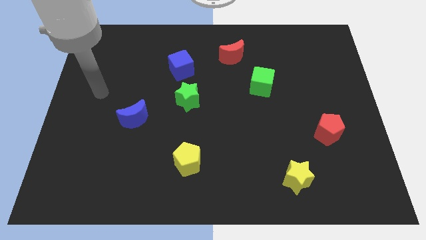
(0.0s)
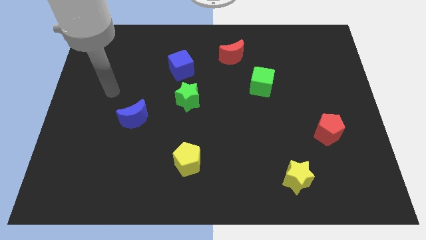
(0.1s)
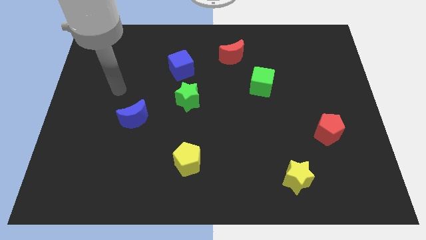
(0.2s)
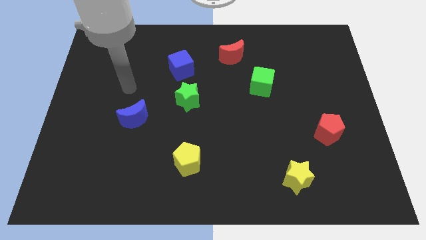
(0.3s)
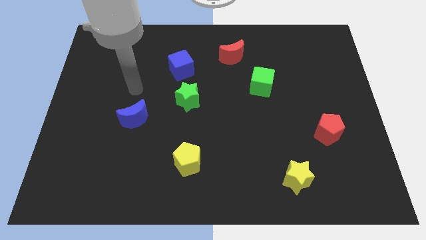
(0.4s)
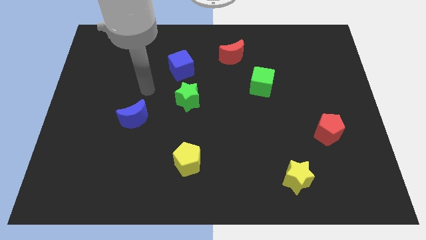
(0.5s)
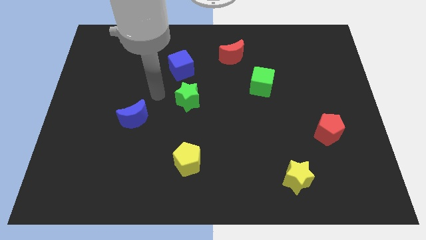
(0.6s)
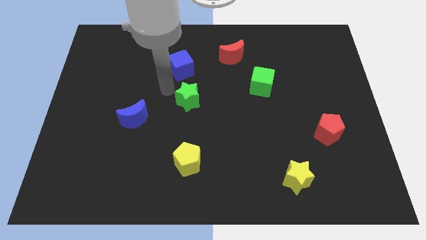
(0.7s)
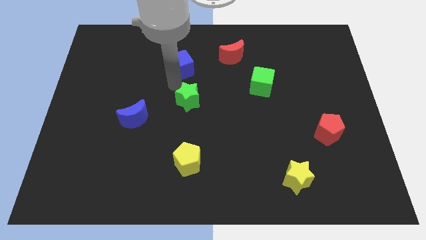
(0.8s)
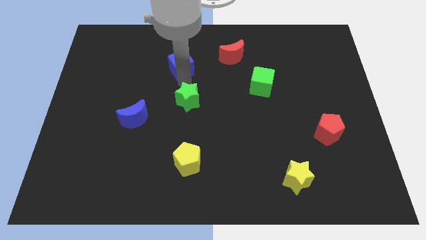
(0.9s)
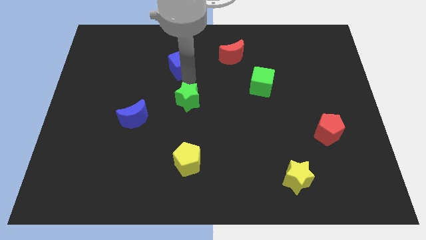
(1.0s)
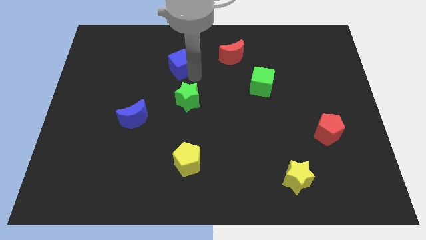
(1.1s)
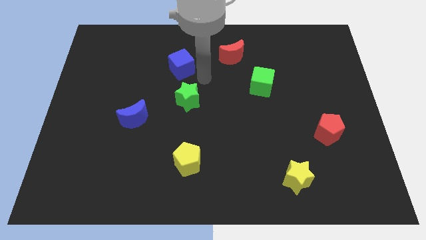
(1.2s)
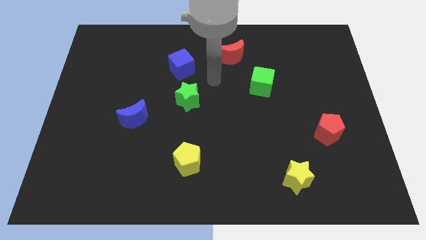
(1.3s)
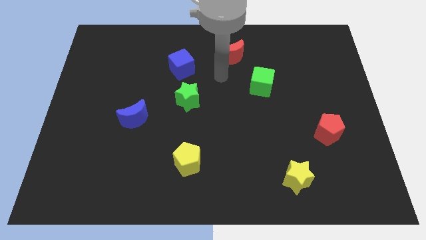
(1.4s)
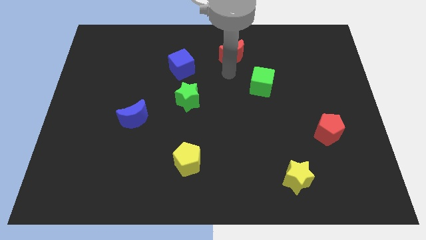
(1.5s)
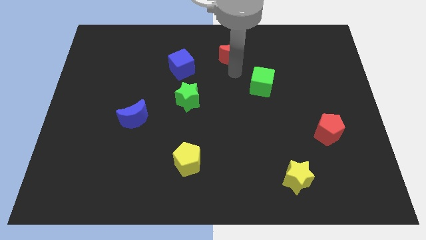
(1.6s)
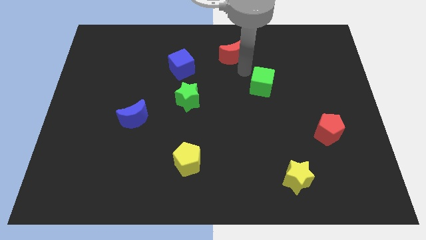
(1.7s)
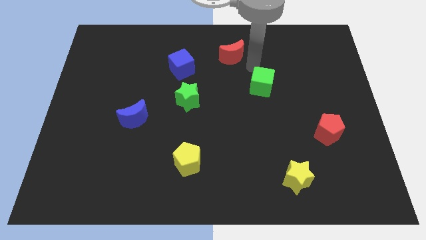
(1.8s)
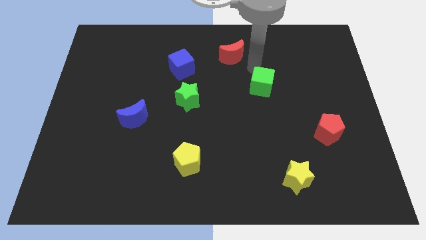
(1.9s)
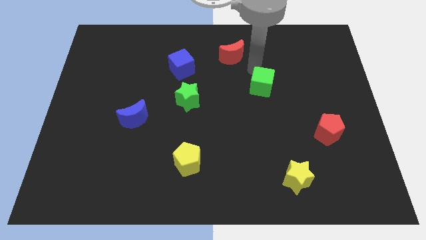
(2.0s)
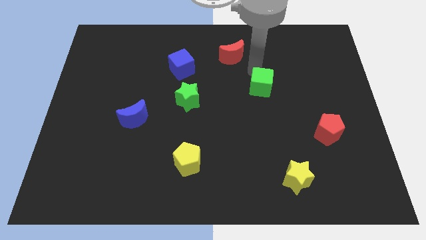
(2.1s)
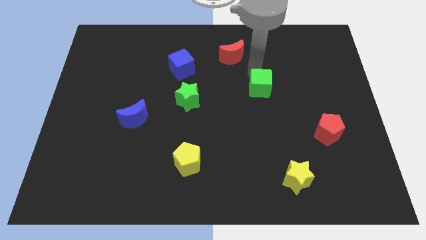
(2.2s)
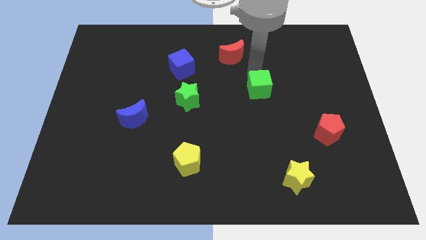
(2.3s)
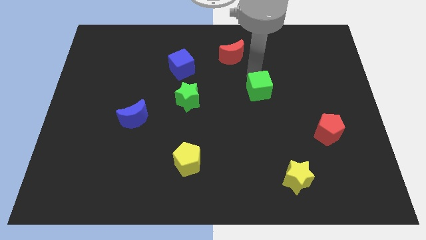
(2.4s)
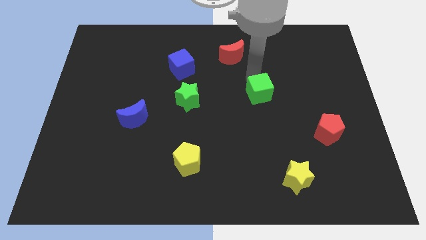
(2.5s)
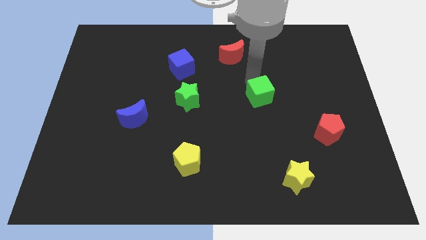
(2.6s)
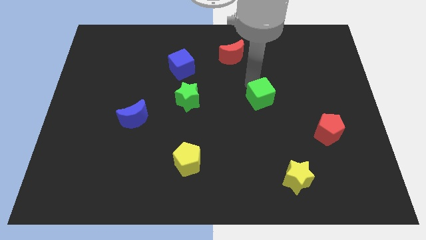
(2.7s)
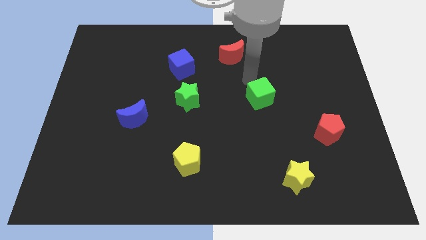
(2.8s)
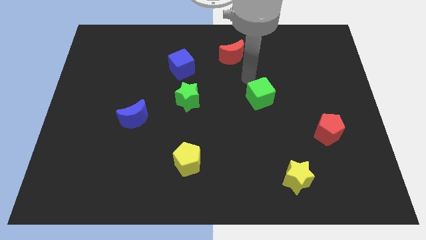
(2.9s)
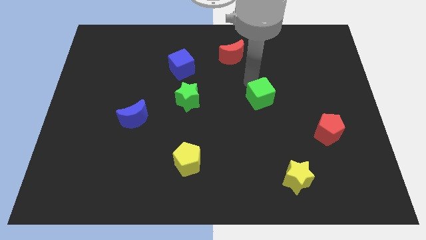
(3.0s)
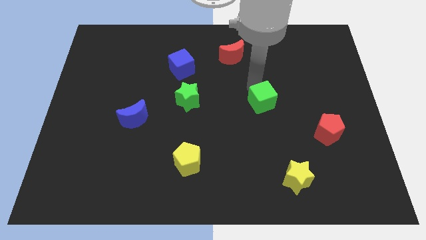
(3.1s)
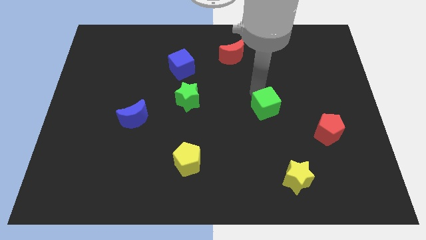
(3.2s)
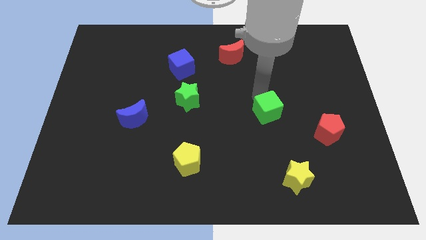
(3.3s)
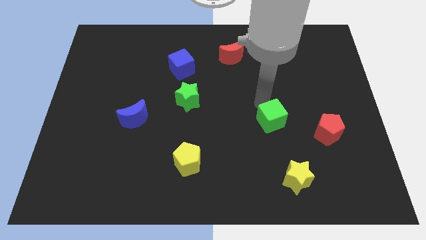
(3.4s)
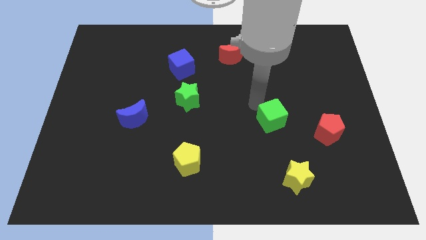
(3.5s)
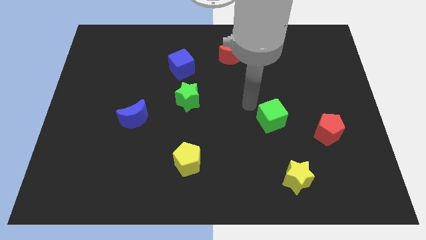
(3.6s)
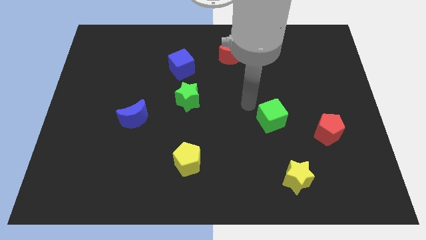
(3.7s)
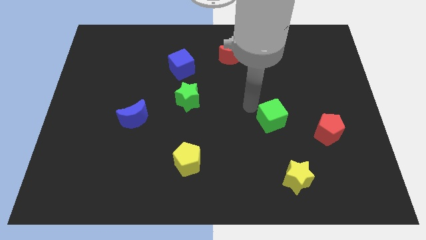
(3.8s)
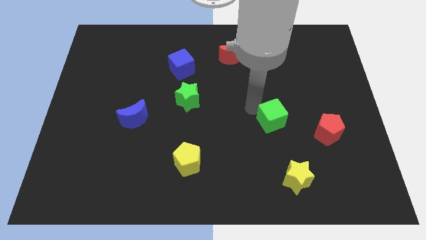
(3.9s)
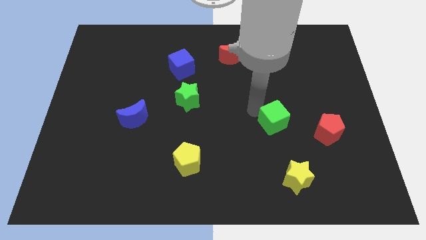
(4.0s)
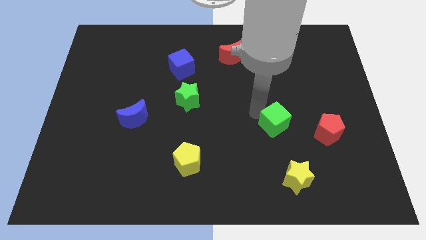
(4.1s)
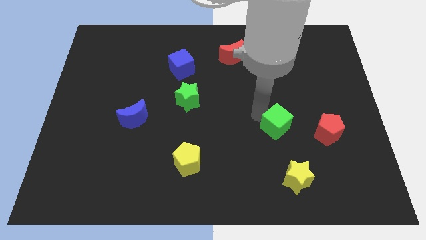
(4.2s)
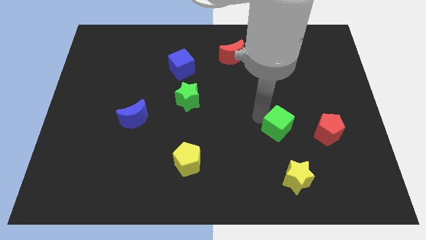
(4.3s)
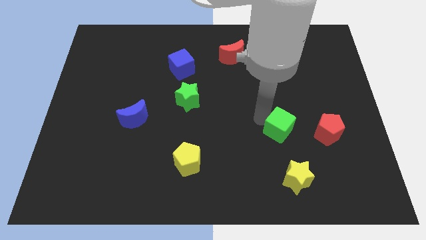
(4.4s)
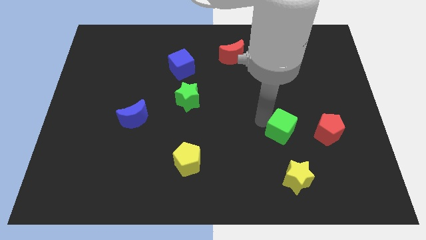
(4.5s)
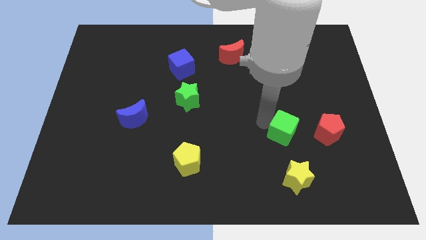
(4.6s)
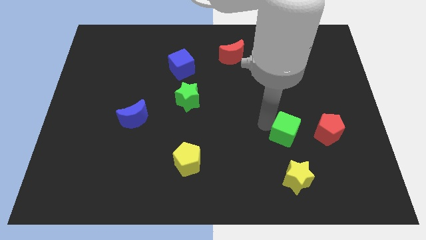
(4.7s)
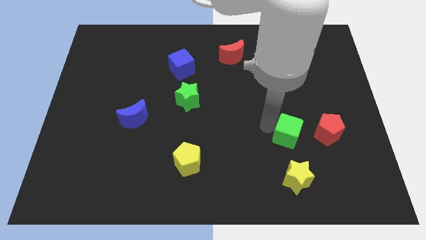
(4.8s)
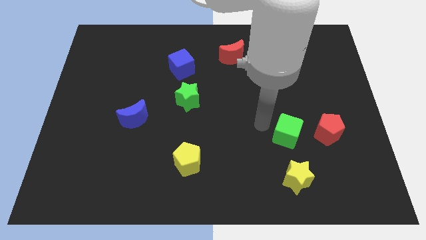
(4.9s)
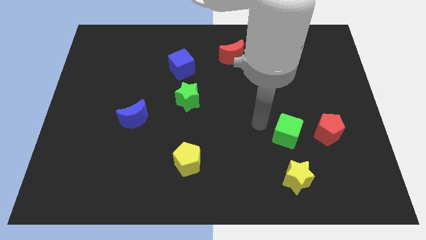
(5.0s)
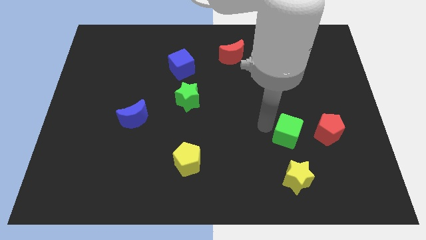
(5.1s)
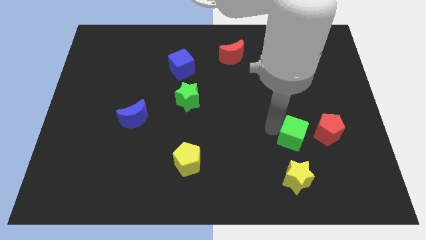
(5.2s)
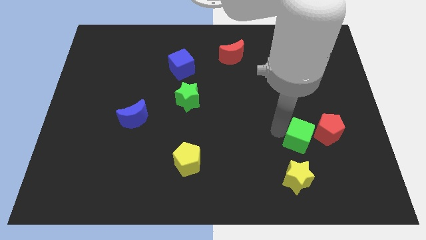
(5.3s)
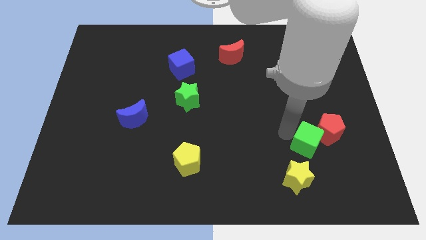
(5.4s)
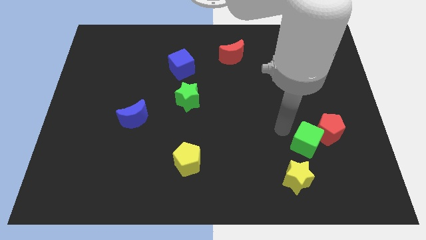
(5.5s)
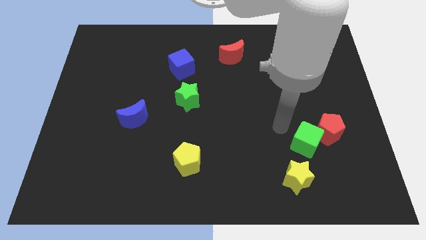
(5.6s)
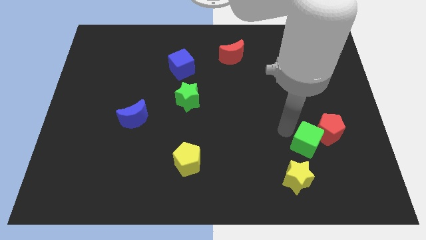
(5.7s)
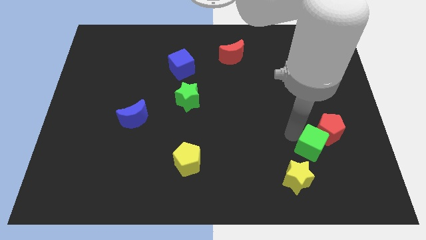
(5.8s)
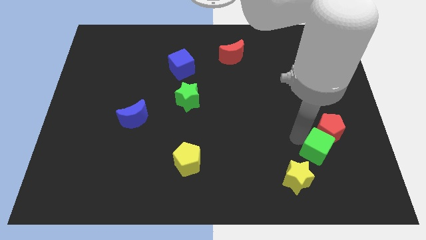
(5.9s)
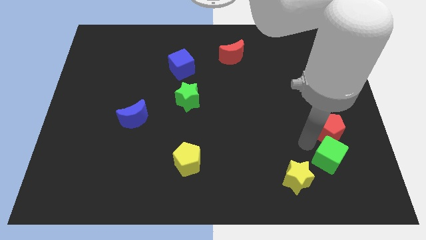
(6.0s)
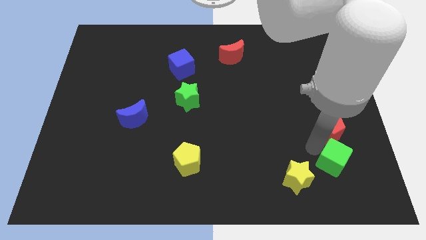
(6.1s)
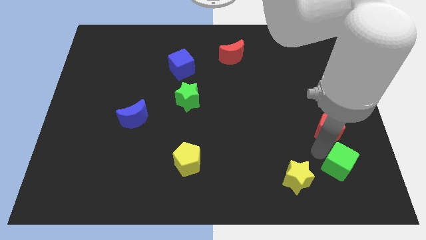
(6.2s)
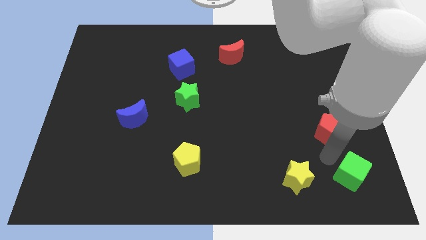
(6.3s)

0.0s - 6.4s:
push the green cube to the bottom right
